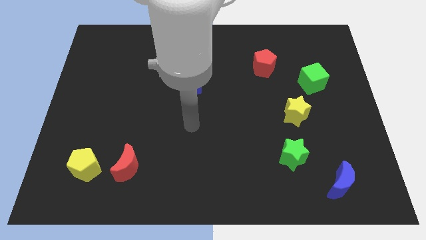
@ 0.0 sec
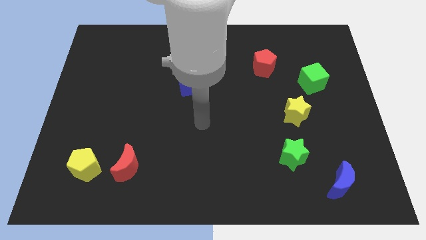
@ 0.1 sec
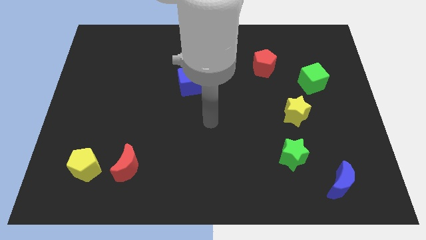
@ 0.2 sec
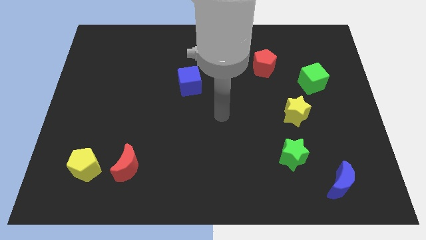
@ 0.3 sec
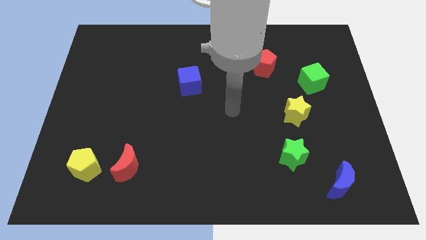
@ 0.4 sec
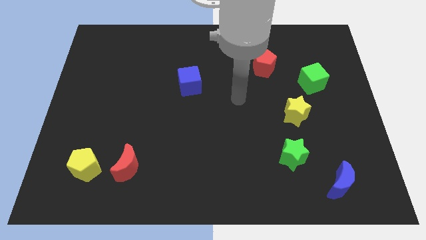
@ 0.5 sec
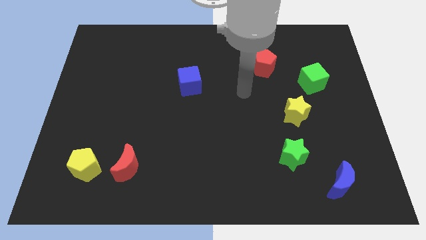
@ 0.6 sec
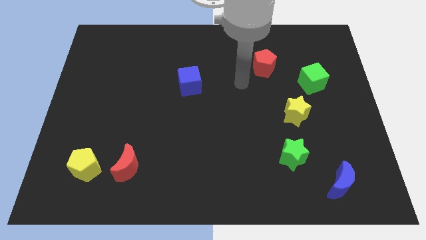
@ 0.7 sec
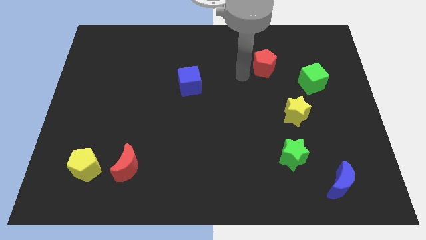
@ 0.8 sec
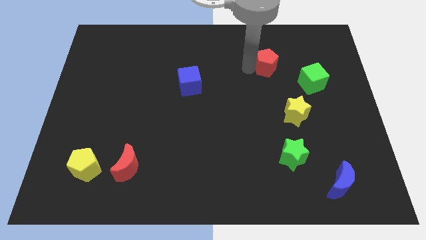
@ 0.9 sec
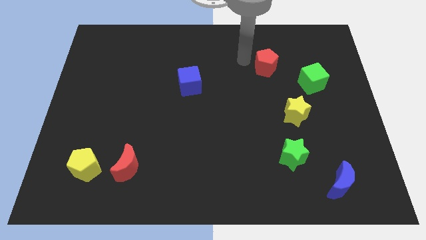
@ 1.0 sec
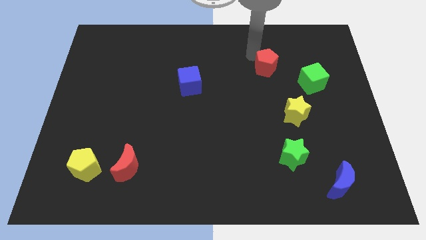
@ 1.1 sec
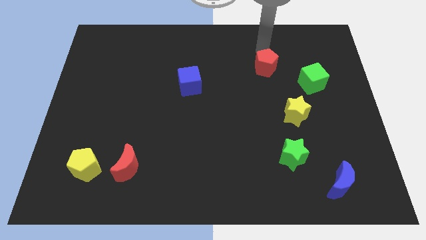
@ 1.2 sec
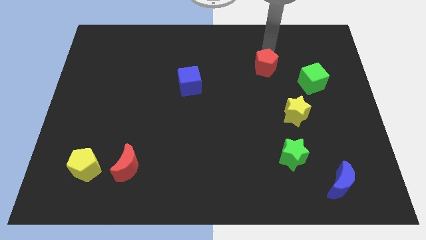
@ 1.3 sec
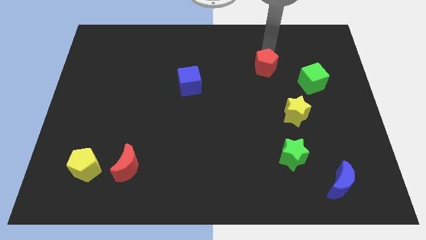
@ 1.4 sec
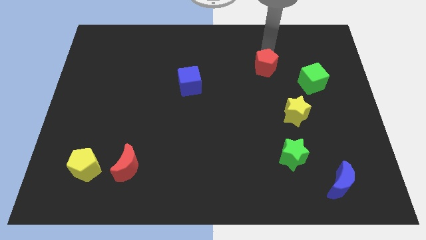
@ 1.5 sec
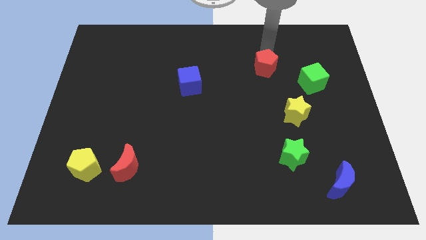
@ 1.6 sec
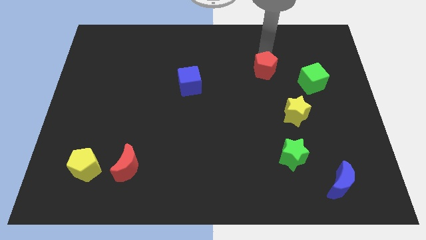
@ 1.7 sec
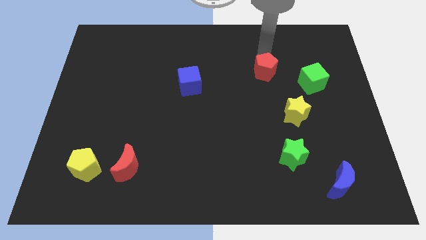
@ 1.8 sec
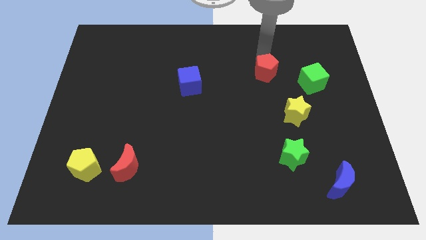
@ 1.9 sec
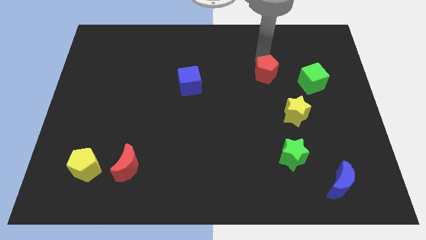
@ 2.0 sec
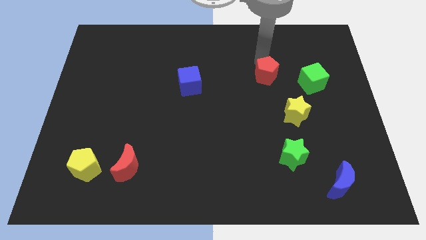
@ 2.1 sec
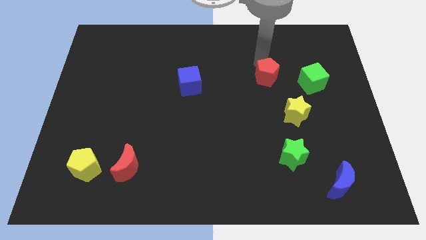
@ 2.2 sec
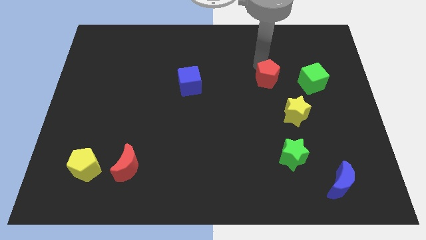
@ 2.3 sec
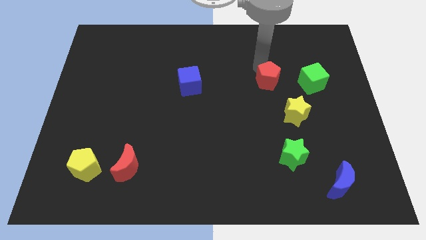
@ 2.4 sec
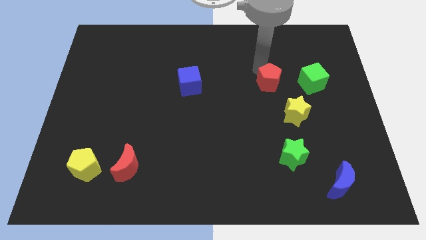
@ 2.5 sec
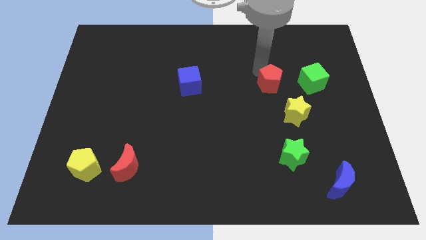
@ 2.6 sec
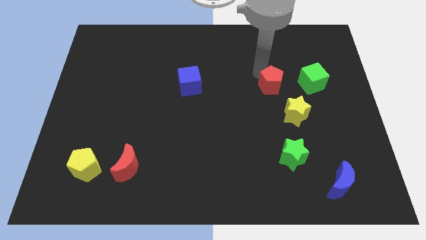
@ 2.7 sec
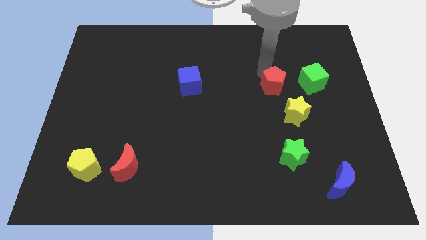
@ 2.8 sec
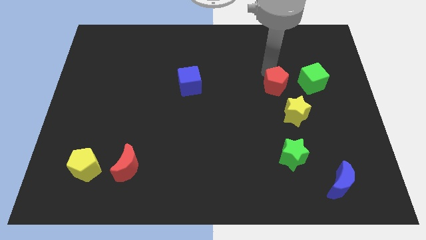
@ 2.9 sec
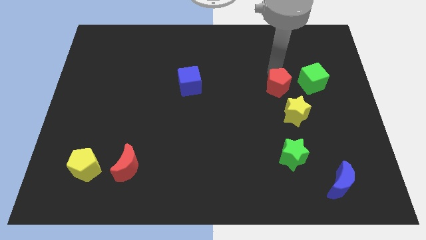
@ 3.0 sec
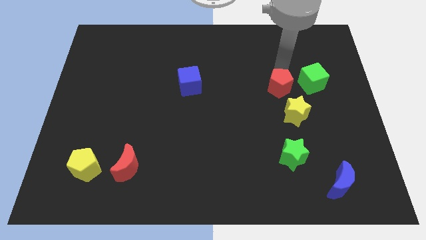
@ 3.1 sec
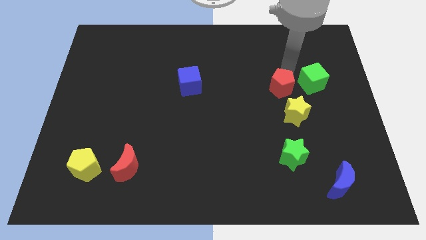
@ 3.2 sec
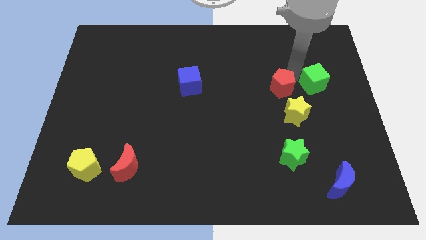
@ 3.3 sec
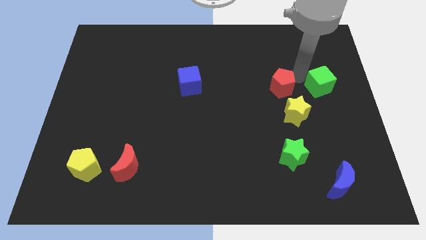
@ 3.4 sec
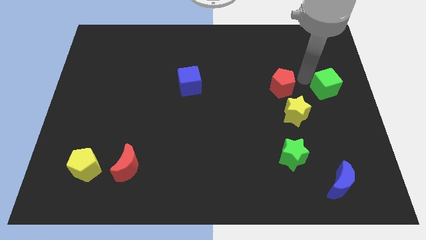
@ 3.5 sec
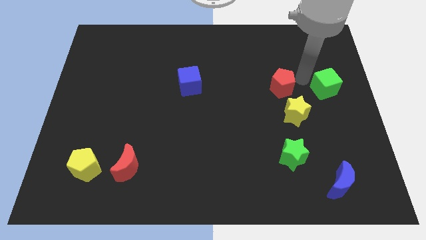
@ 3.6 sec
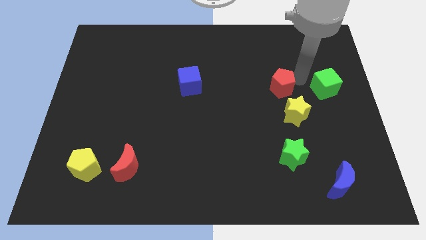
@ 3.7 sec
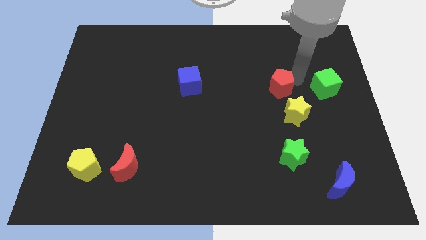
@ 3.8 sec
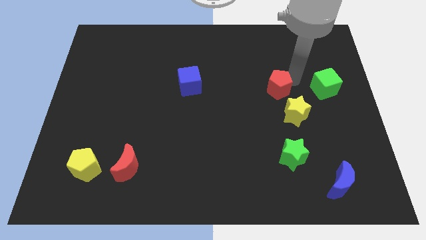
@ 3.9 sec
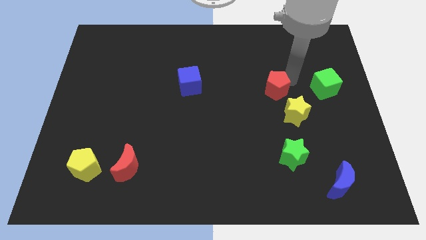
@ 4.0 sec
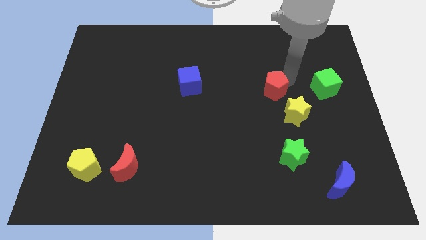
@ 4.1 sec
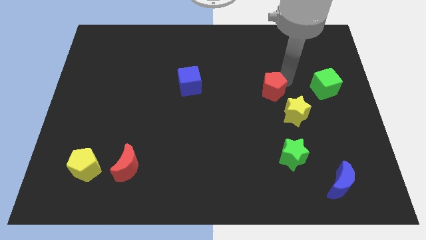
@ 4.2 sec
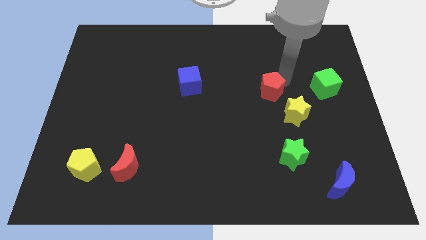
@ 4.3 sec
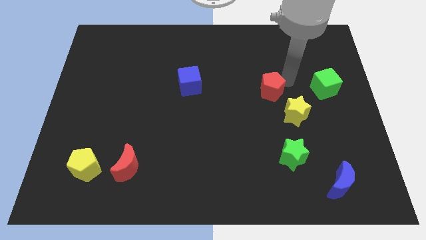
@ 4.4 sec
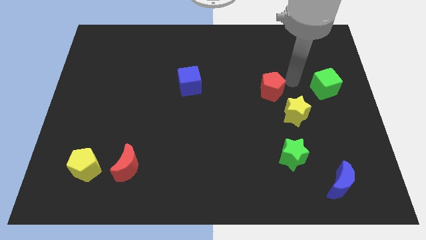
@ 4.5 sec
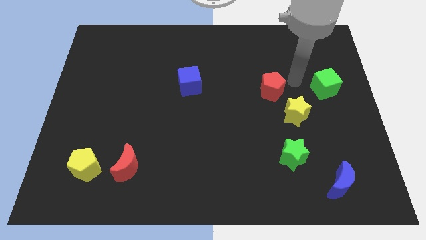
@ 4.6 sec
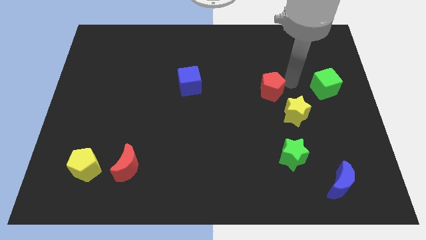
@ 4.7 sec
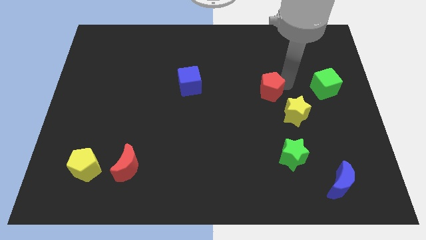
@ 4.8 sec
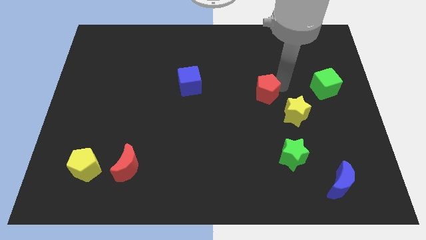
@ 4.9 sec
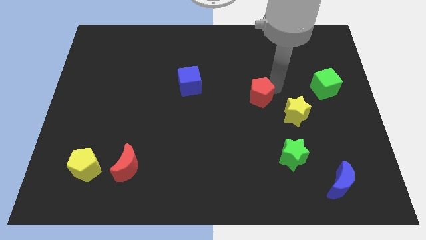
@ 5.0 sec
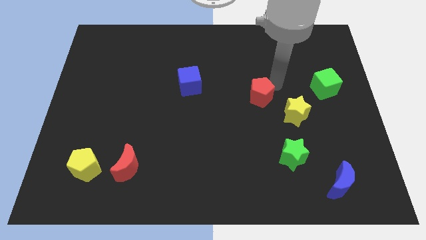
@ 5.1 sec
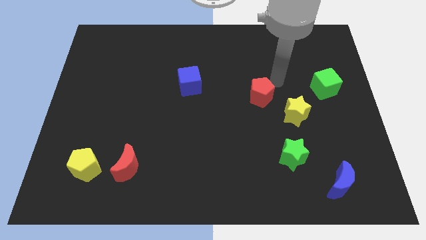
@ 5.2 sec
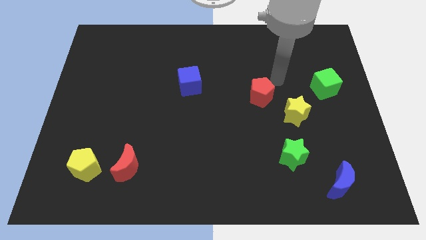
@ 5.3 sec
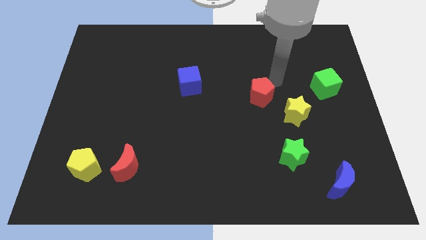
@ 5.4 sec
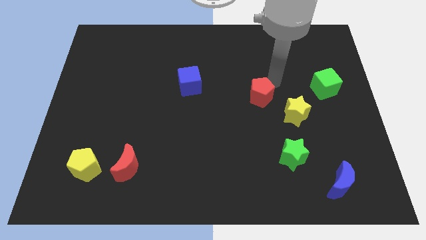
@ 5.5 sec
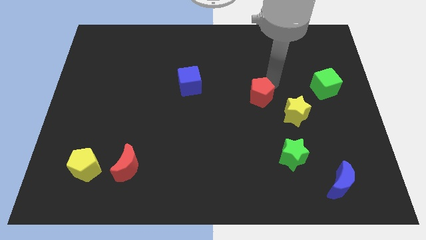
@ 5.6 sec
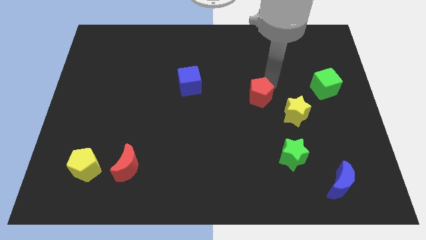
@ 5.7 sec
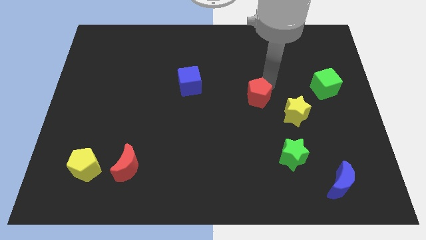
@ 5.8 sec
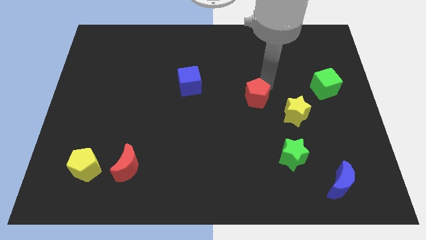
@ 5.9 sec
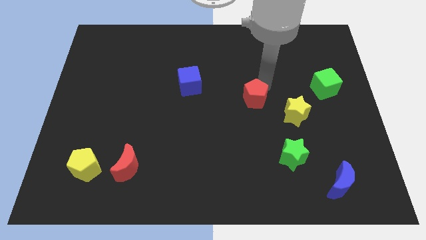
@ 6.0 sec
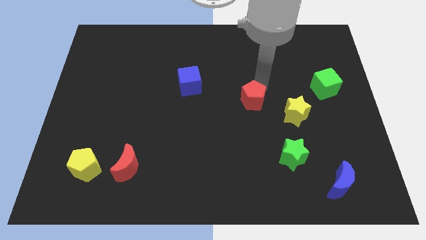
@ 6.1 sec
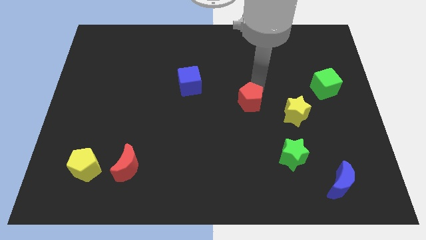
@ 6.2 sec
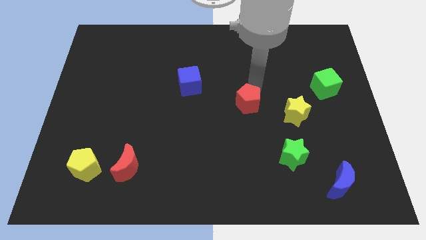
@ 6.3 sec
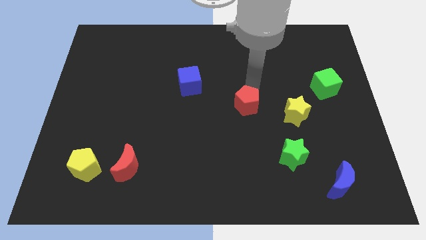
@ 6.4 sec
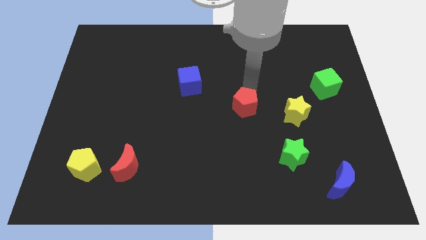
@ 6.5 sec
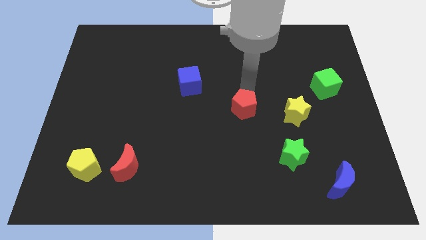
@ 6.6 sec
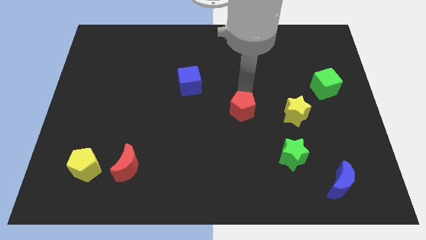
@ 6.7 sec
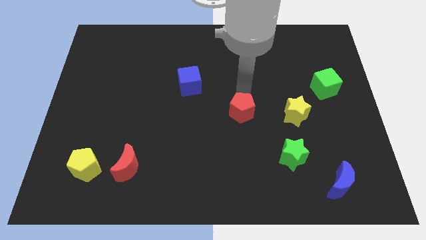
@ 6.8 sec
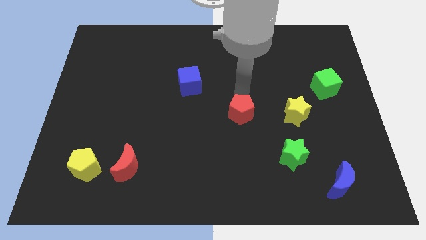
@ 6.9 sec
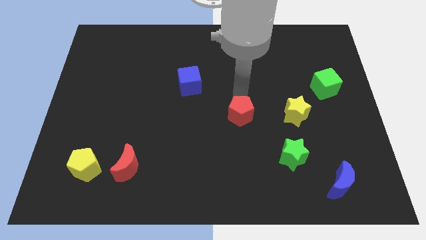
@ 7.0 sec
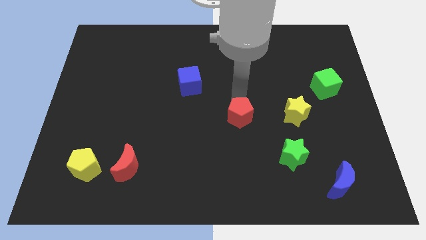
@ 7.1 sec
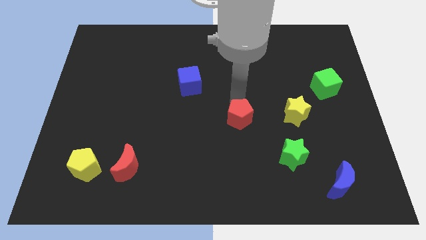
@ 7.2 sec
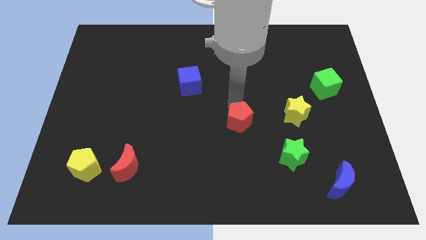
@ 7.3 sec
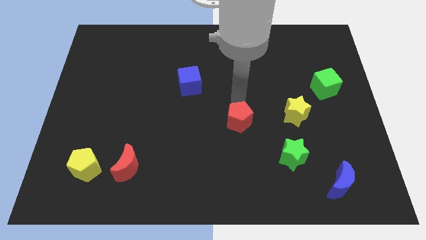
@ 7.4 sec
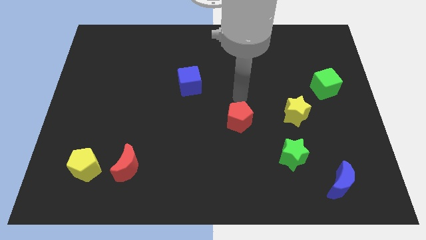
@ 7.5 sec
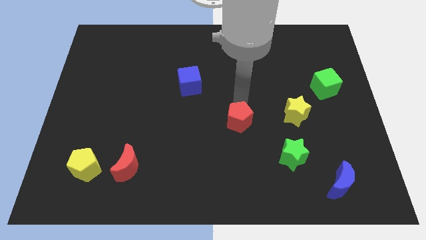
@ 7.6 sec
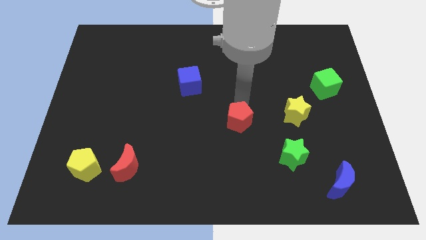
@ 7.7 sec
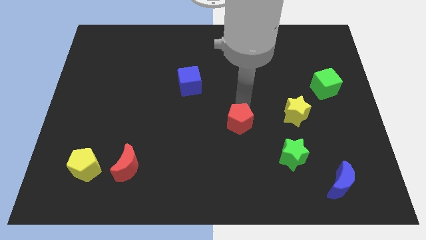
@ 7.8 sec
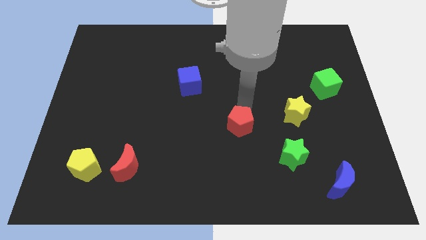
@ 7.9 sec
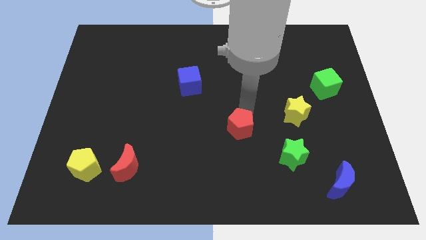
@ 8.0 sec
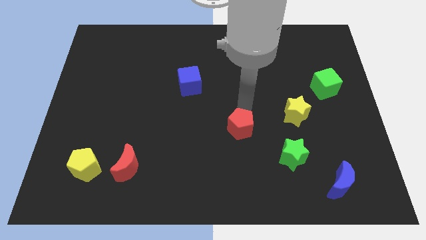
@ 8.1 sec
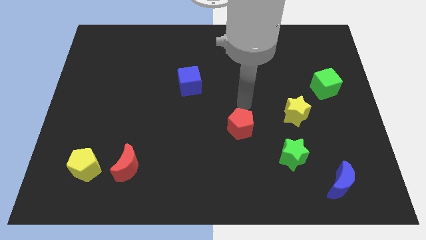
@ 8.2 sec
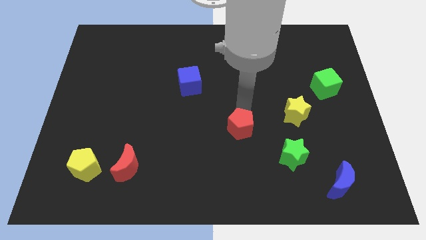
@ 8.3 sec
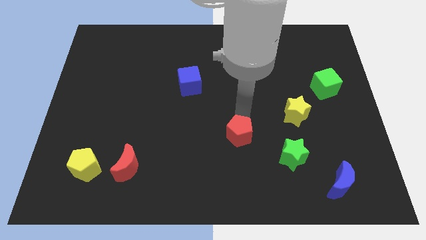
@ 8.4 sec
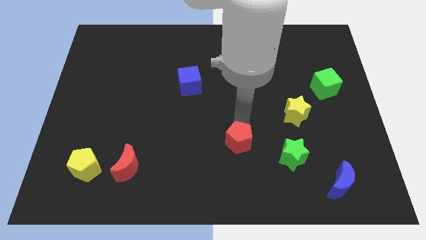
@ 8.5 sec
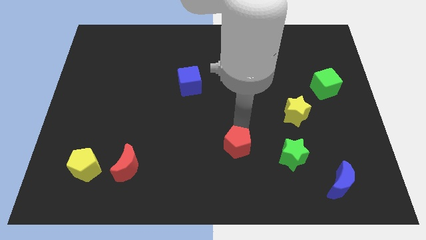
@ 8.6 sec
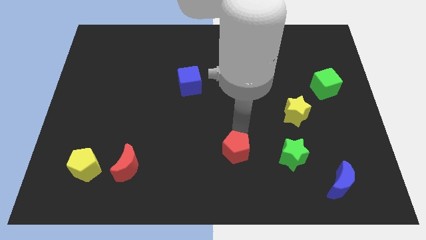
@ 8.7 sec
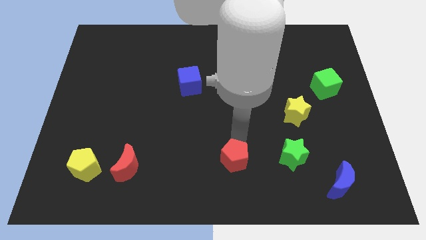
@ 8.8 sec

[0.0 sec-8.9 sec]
push the red pentagon to the bottom side
